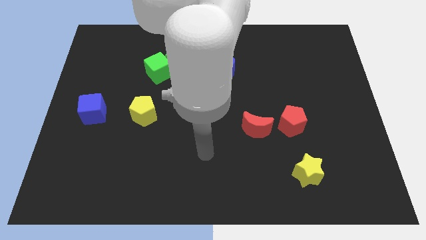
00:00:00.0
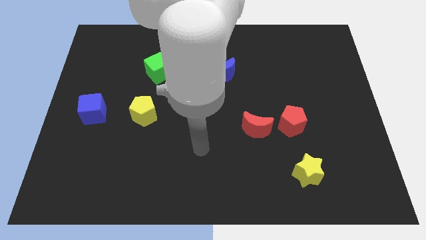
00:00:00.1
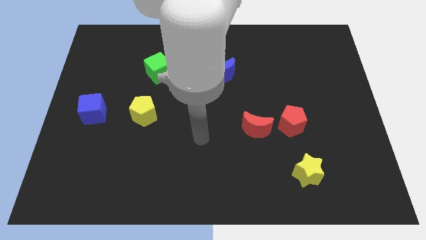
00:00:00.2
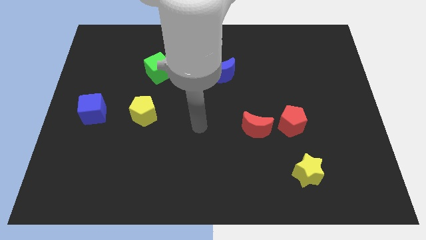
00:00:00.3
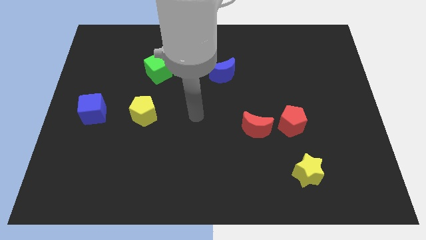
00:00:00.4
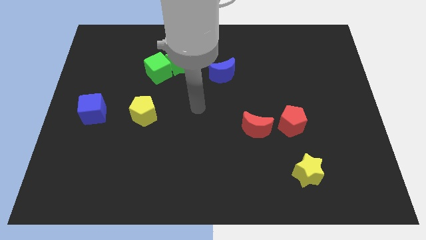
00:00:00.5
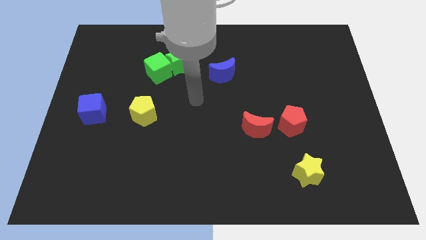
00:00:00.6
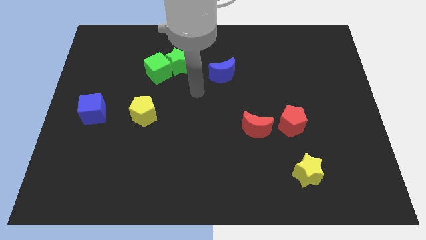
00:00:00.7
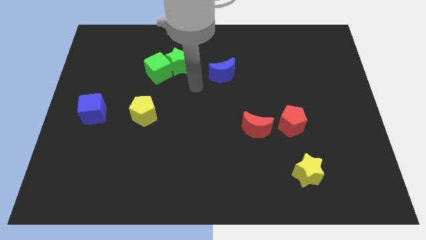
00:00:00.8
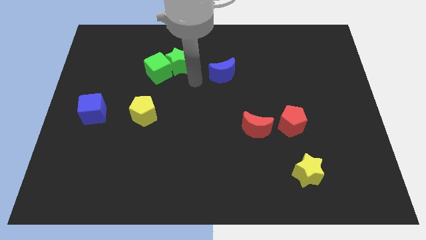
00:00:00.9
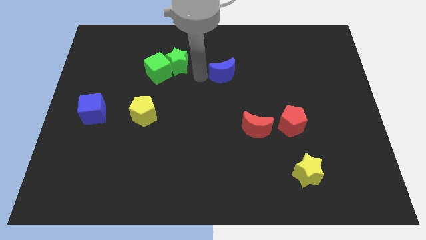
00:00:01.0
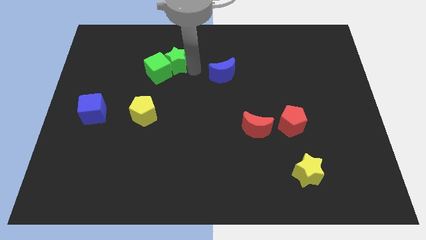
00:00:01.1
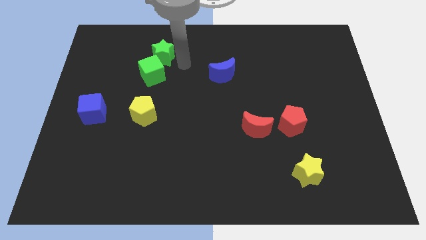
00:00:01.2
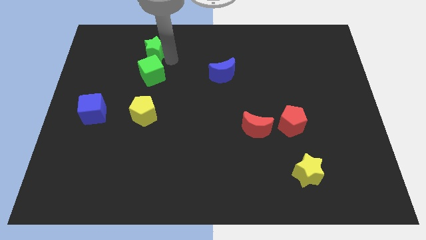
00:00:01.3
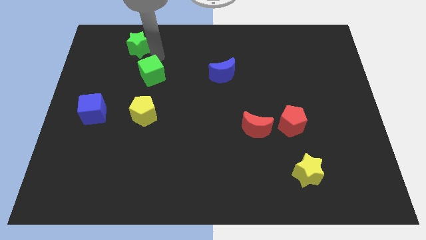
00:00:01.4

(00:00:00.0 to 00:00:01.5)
move the green cube away from the green star

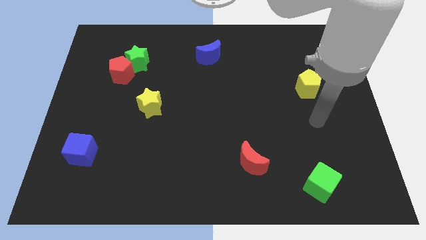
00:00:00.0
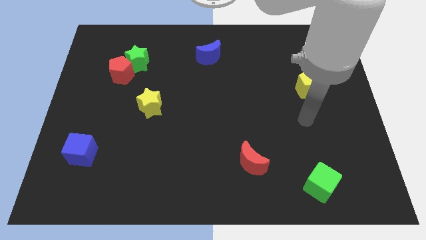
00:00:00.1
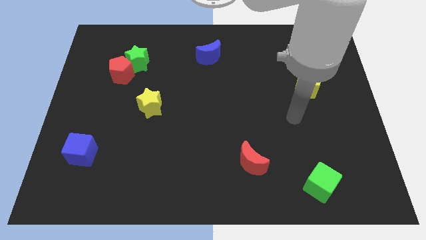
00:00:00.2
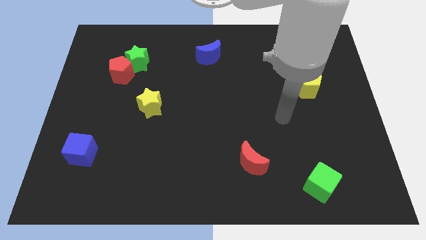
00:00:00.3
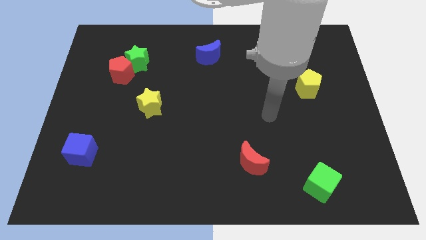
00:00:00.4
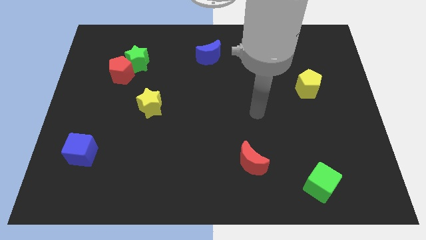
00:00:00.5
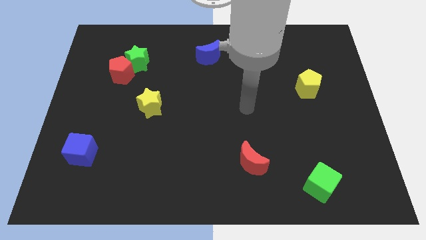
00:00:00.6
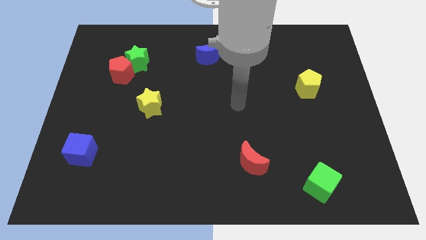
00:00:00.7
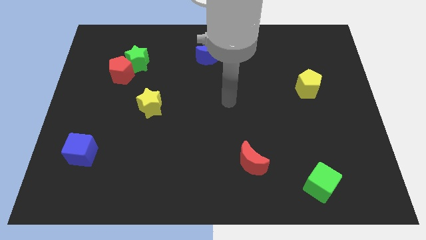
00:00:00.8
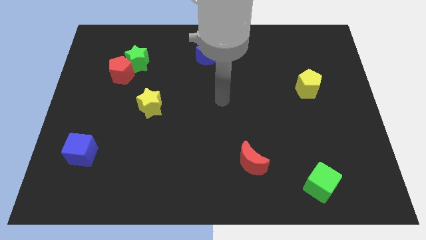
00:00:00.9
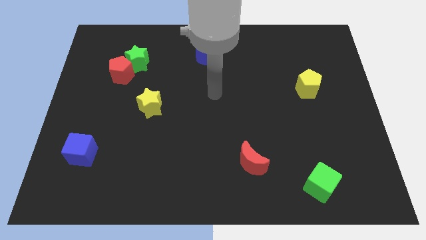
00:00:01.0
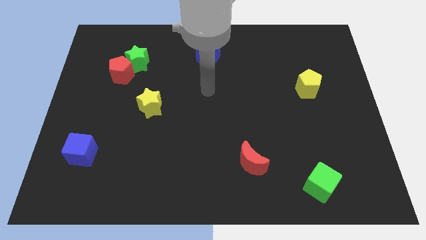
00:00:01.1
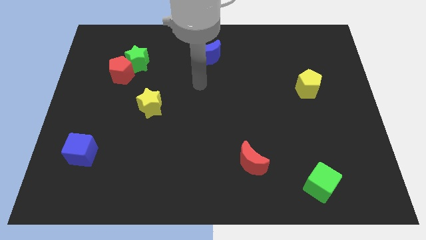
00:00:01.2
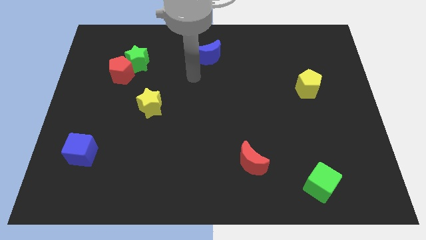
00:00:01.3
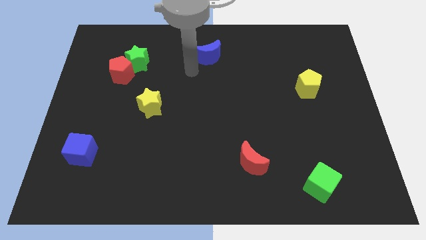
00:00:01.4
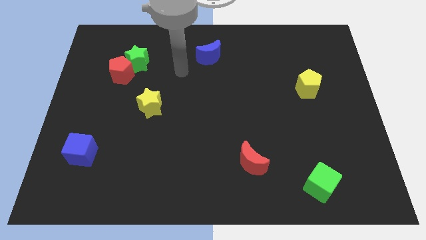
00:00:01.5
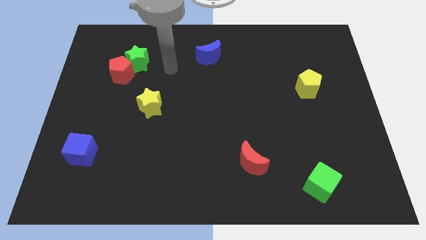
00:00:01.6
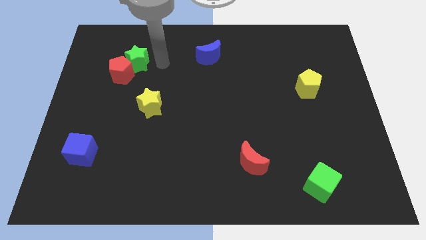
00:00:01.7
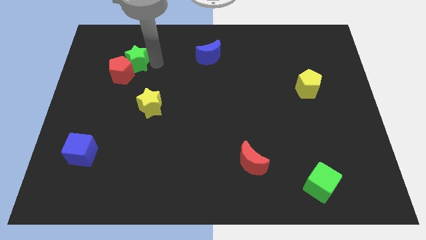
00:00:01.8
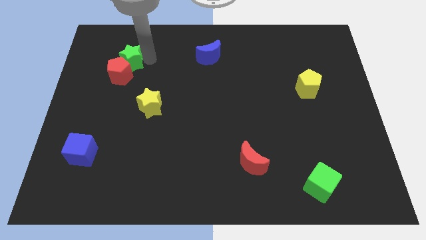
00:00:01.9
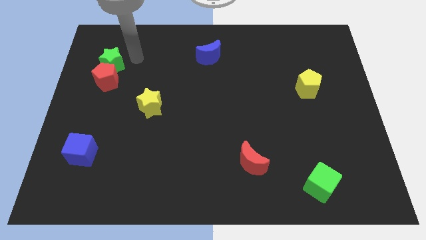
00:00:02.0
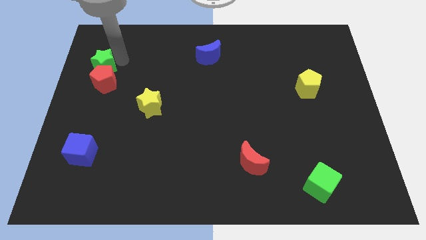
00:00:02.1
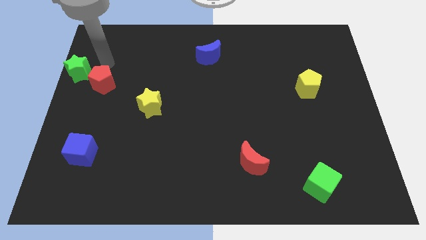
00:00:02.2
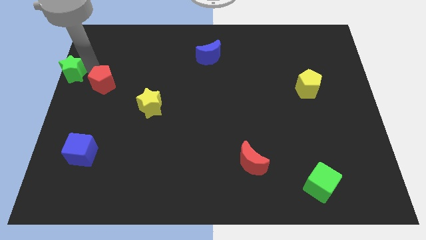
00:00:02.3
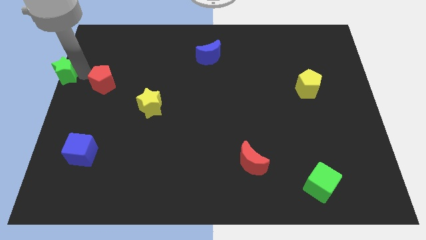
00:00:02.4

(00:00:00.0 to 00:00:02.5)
pull the red pentagon apart from the green star

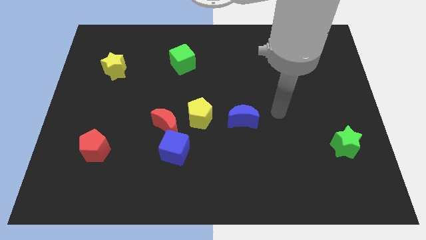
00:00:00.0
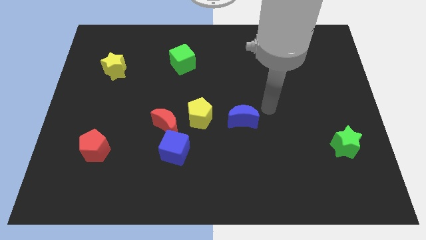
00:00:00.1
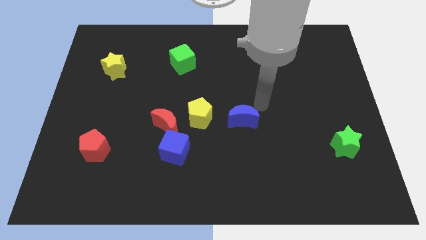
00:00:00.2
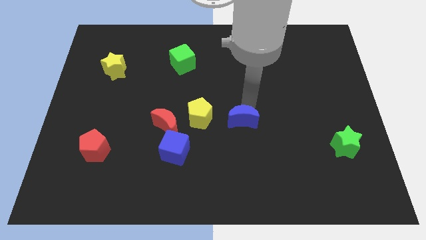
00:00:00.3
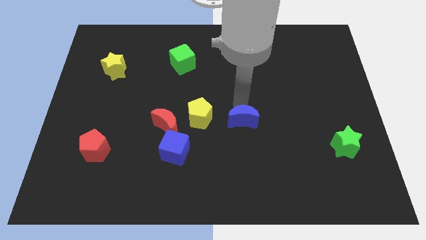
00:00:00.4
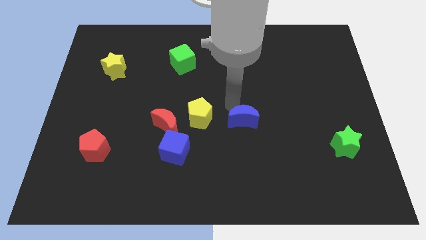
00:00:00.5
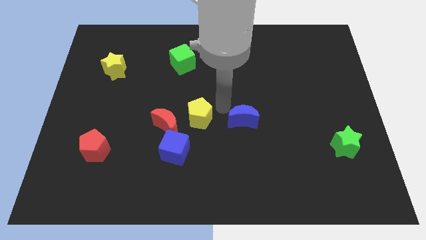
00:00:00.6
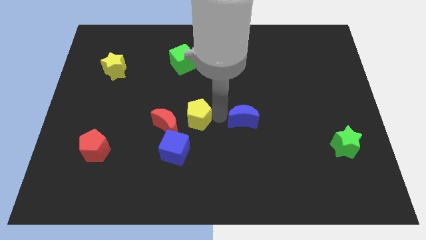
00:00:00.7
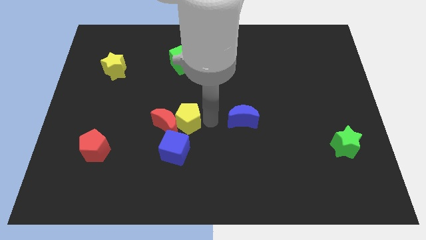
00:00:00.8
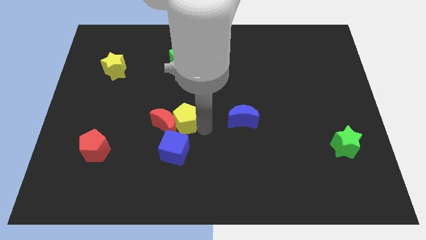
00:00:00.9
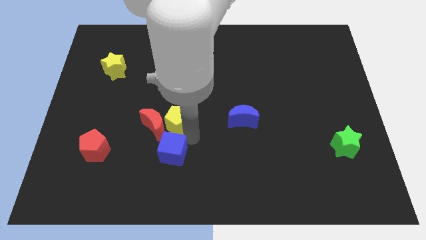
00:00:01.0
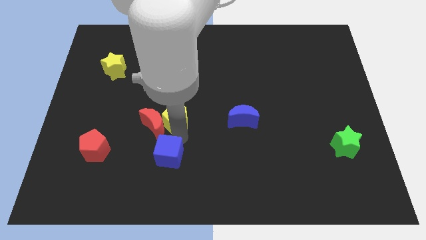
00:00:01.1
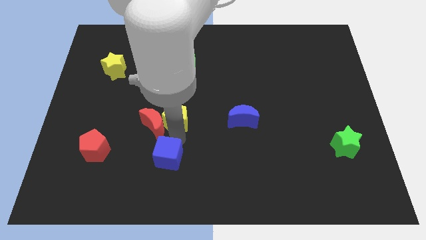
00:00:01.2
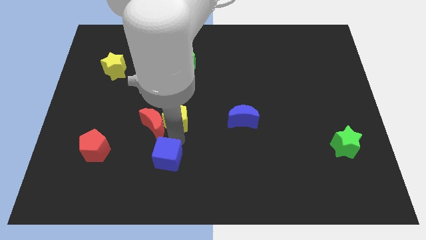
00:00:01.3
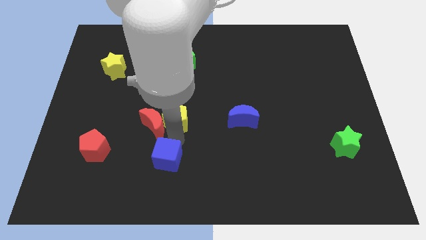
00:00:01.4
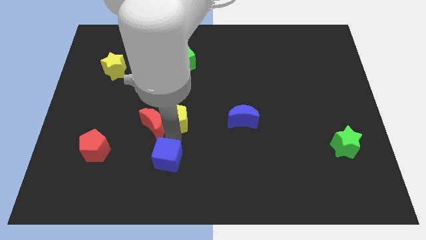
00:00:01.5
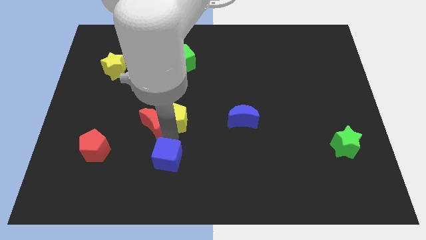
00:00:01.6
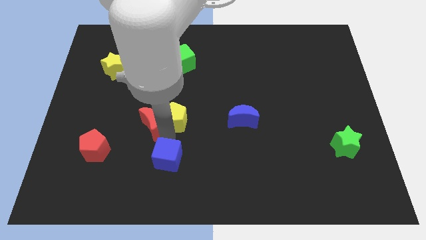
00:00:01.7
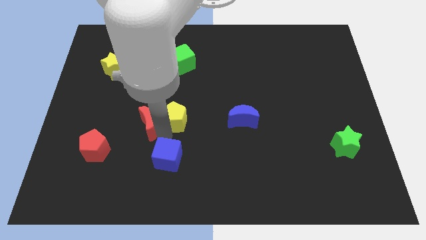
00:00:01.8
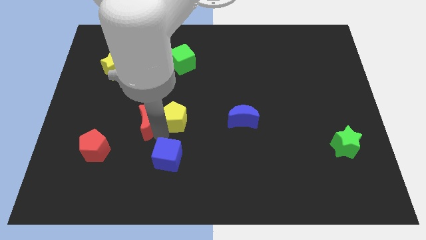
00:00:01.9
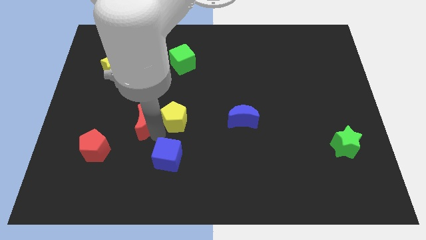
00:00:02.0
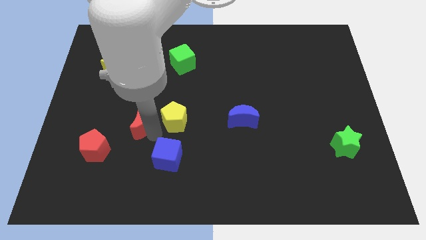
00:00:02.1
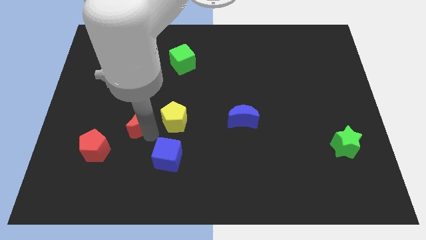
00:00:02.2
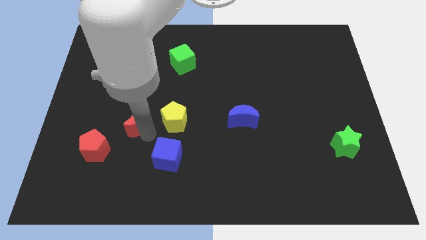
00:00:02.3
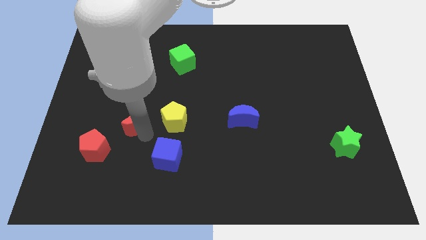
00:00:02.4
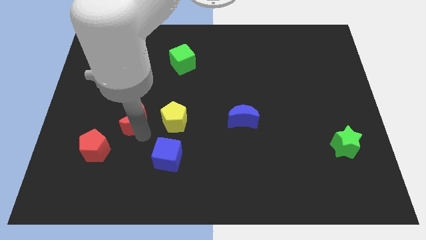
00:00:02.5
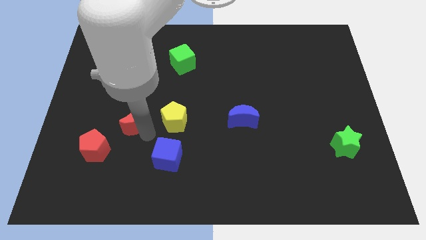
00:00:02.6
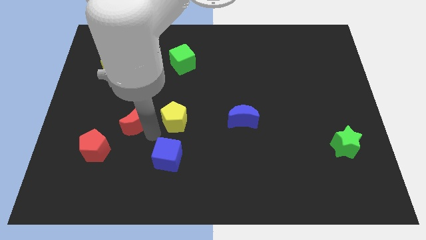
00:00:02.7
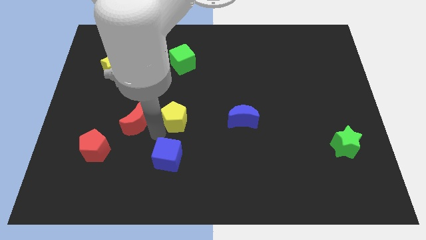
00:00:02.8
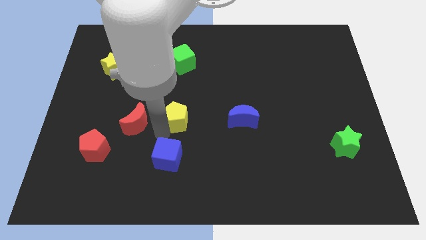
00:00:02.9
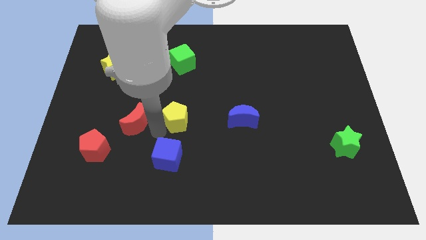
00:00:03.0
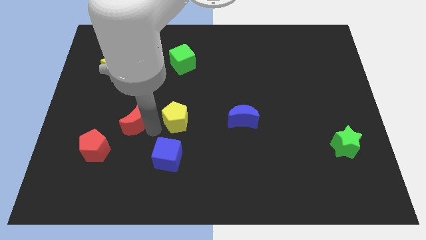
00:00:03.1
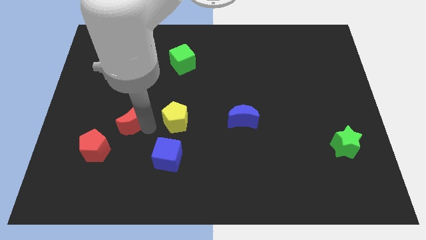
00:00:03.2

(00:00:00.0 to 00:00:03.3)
pull the red moon apart from the blue cube and yellow pentagon

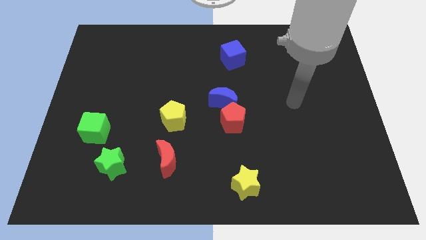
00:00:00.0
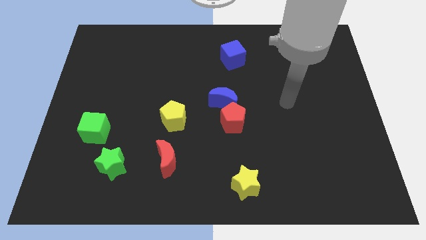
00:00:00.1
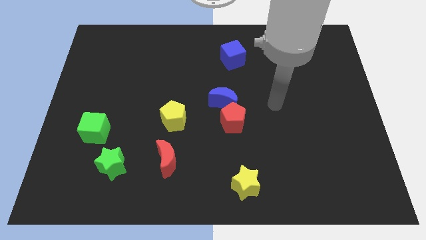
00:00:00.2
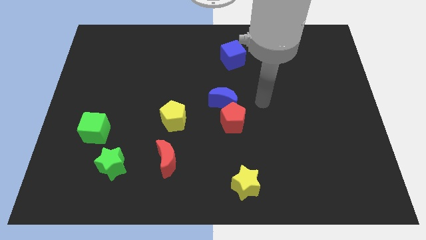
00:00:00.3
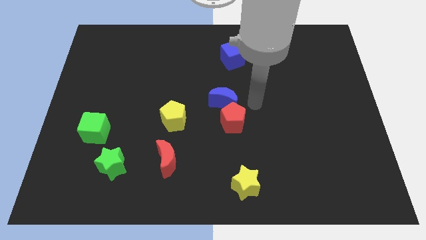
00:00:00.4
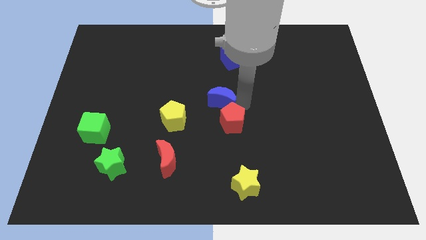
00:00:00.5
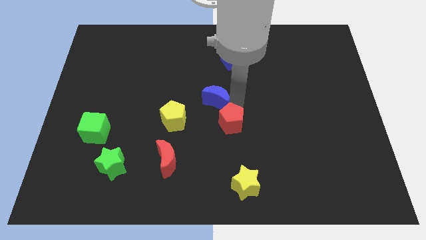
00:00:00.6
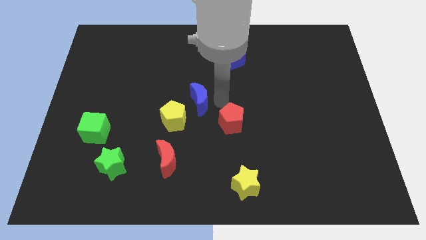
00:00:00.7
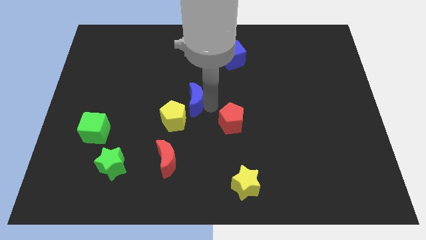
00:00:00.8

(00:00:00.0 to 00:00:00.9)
separate the red pentagon from the blue moon

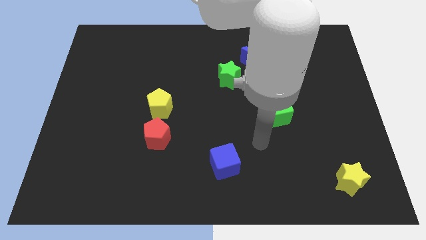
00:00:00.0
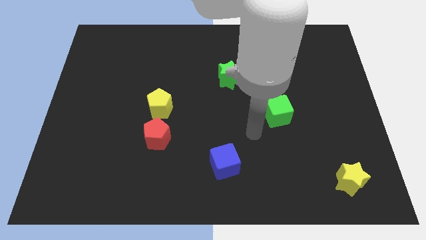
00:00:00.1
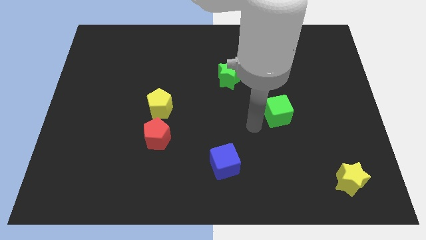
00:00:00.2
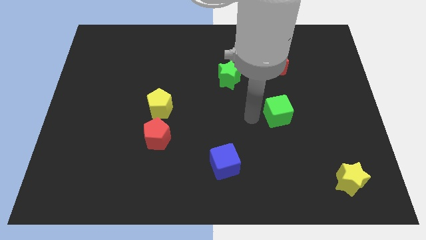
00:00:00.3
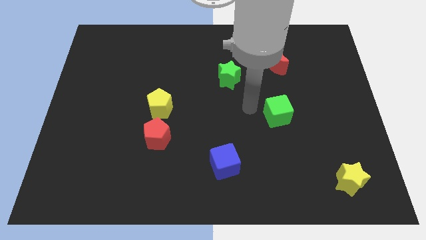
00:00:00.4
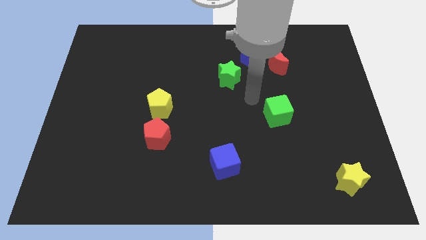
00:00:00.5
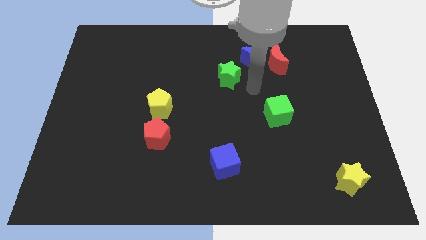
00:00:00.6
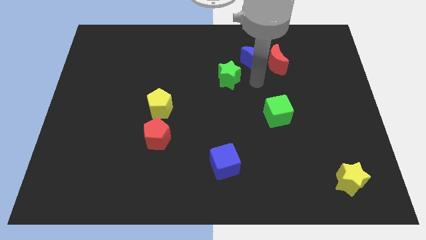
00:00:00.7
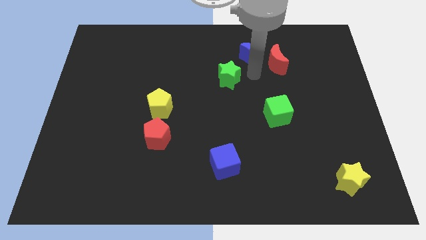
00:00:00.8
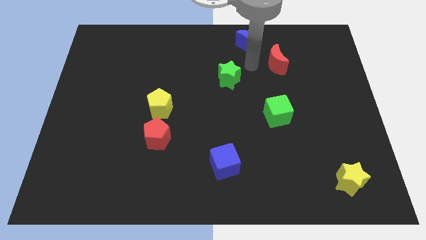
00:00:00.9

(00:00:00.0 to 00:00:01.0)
pull the red moon apart from the blue moon

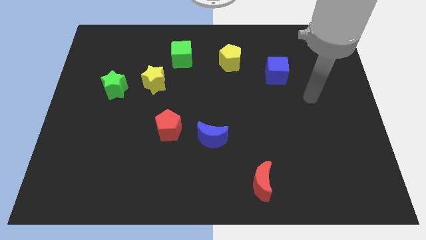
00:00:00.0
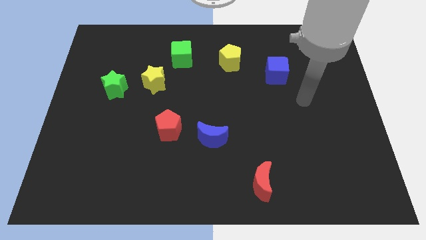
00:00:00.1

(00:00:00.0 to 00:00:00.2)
move the red pentagon away from the blue moon
